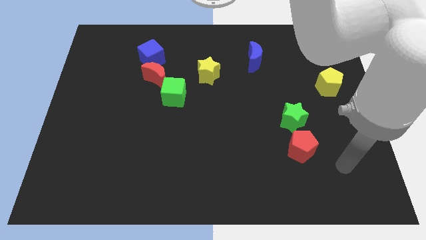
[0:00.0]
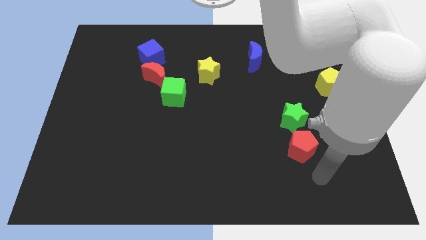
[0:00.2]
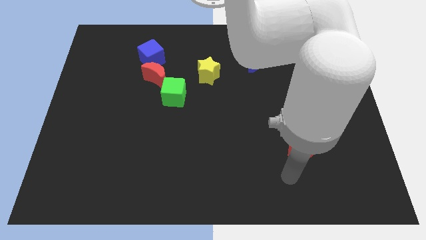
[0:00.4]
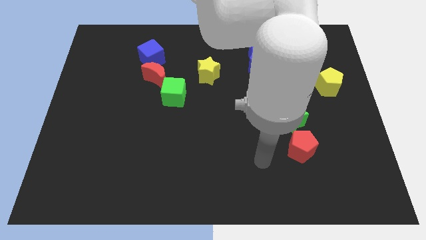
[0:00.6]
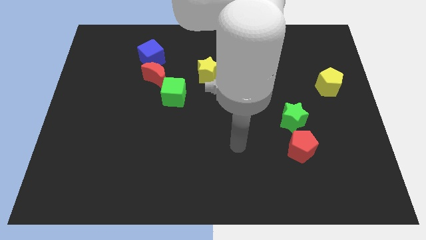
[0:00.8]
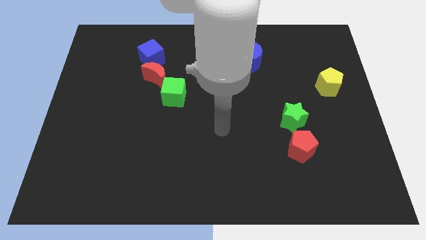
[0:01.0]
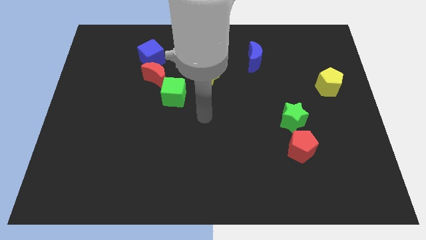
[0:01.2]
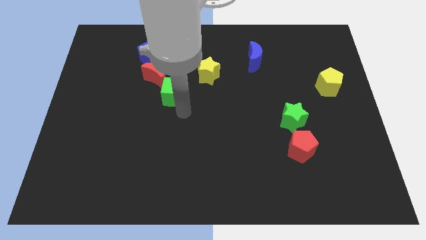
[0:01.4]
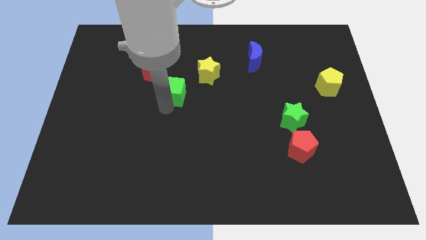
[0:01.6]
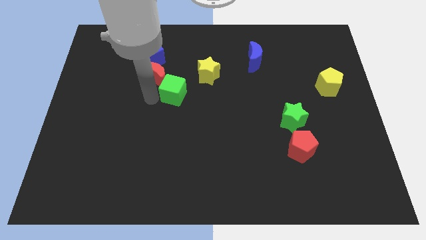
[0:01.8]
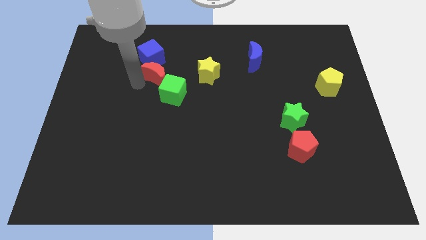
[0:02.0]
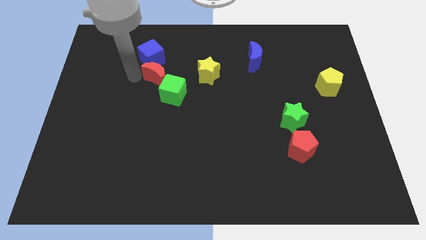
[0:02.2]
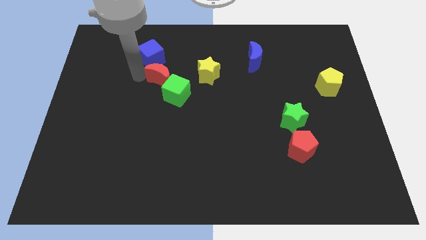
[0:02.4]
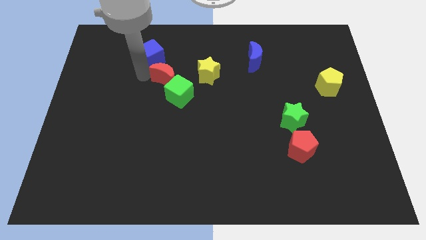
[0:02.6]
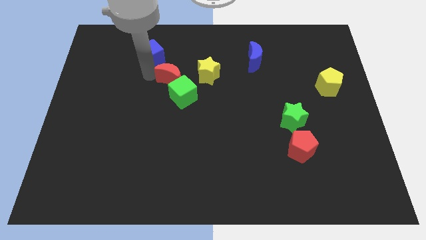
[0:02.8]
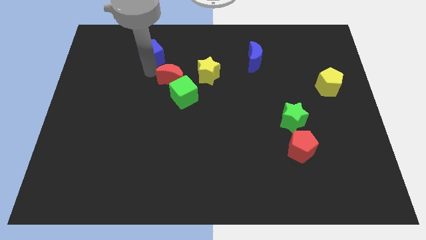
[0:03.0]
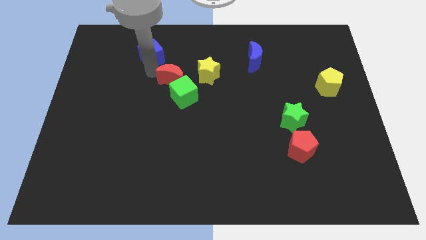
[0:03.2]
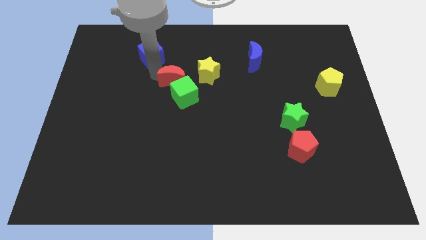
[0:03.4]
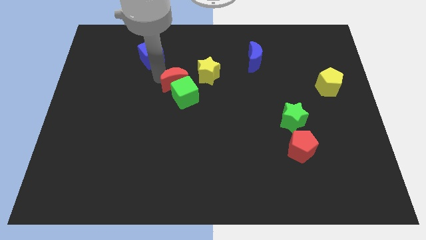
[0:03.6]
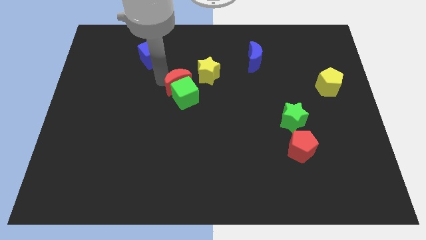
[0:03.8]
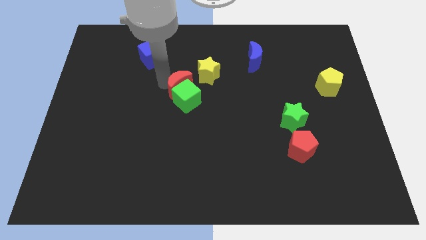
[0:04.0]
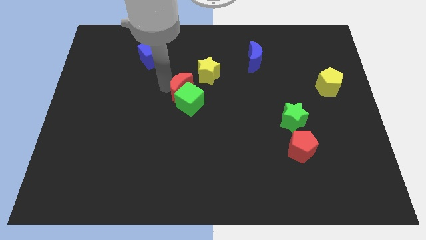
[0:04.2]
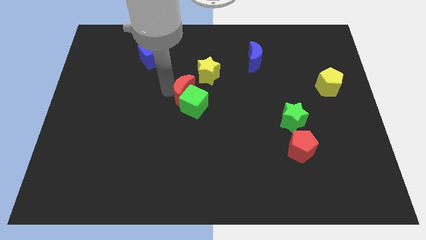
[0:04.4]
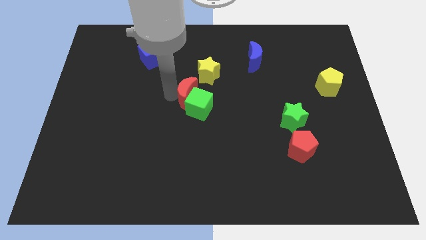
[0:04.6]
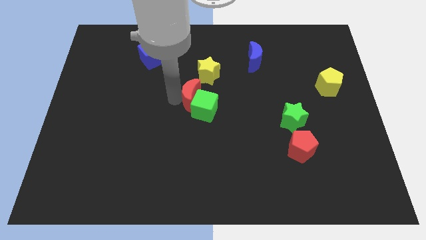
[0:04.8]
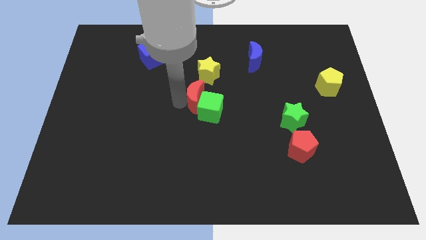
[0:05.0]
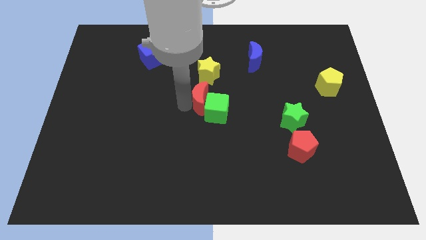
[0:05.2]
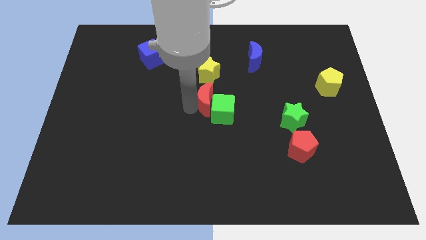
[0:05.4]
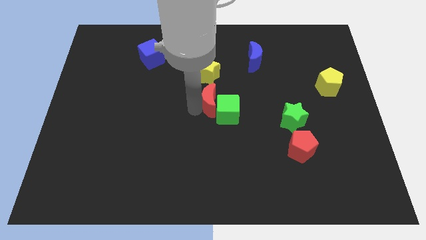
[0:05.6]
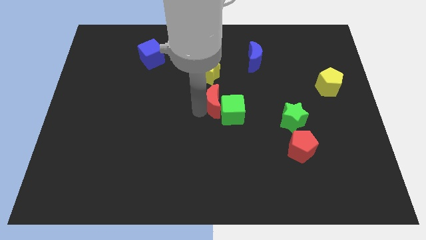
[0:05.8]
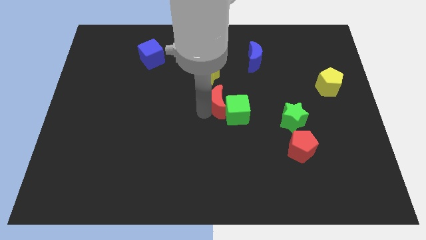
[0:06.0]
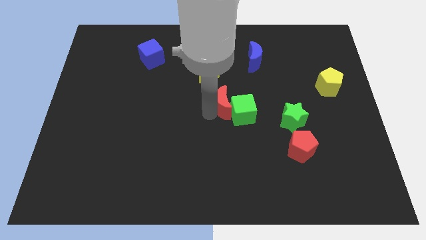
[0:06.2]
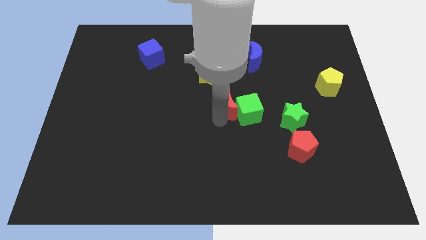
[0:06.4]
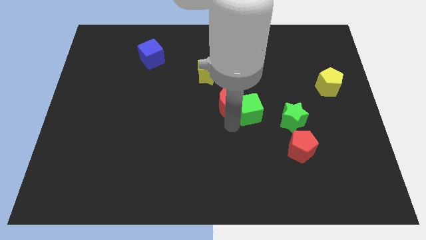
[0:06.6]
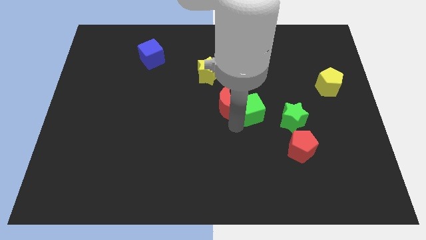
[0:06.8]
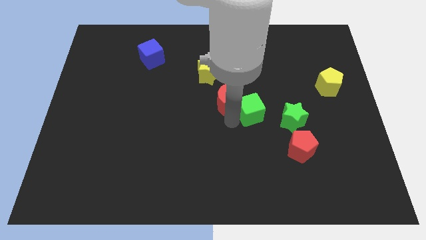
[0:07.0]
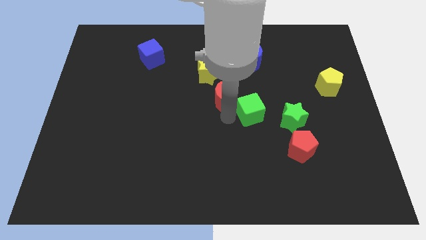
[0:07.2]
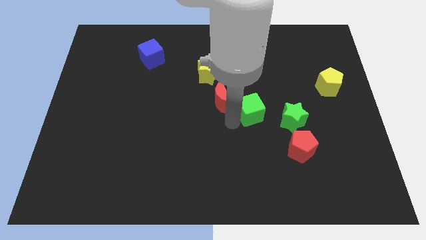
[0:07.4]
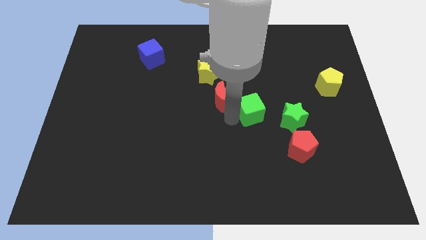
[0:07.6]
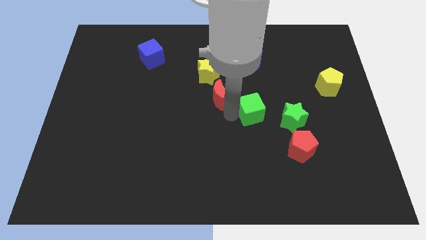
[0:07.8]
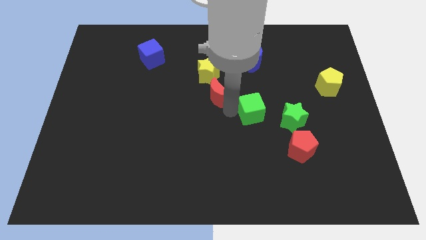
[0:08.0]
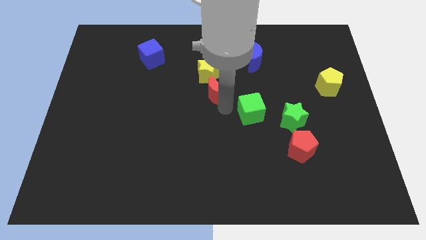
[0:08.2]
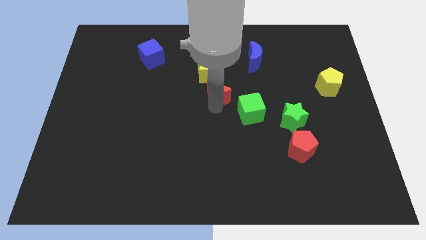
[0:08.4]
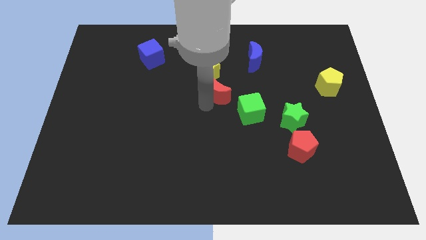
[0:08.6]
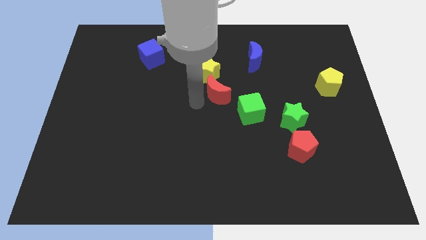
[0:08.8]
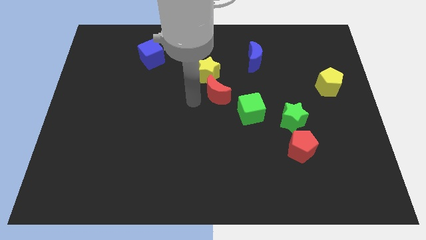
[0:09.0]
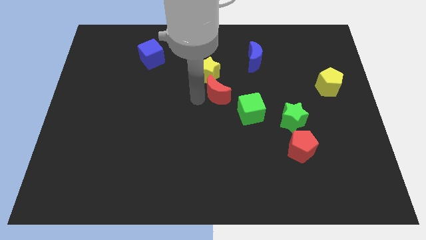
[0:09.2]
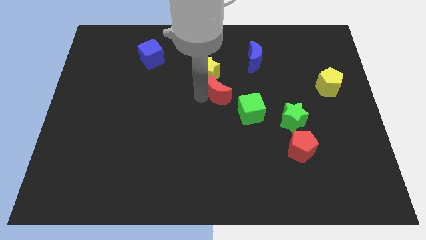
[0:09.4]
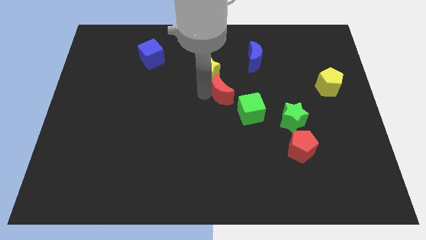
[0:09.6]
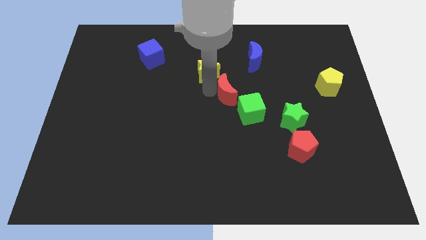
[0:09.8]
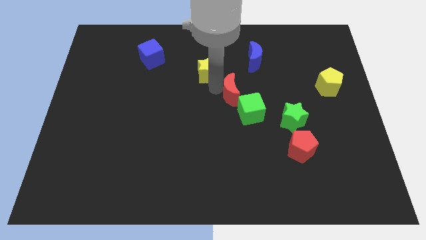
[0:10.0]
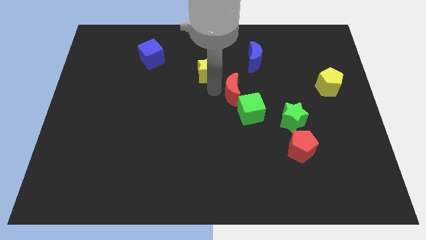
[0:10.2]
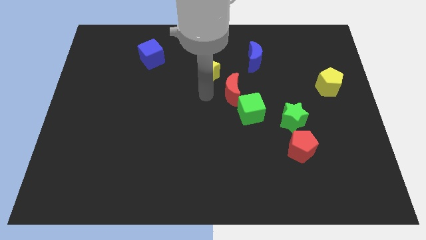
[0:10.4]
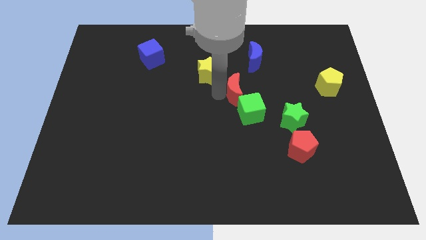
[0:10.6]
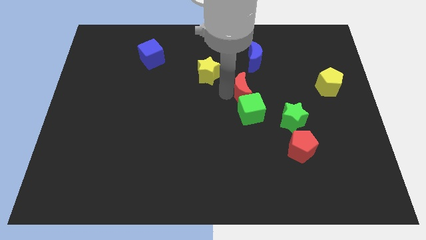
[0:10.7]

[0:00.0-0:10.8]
slide the red moon to the bottom side of the blue moon

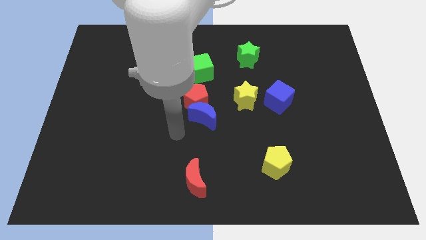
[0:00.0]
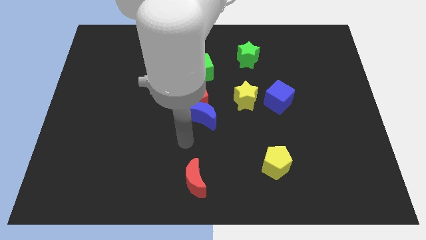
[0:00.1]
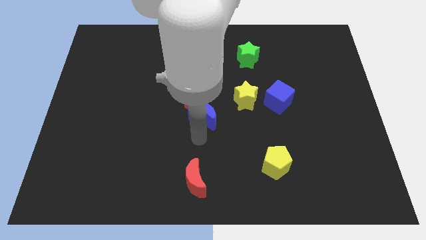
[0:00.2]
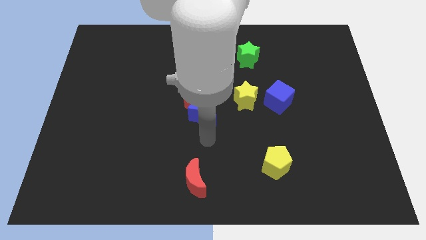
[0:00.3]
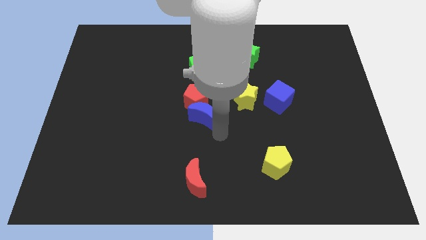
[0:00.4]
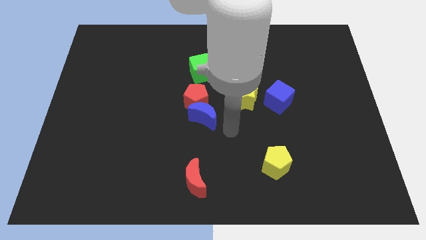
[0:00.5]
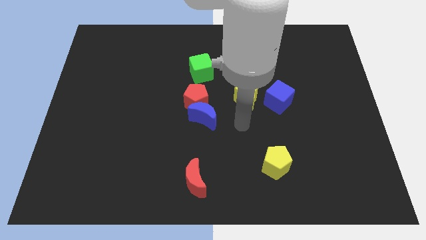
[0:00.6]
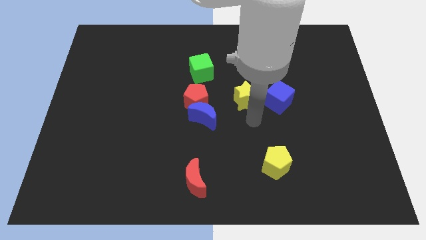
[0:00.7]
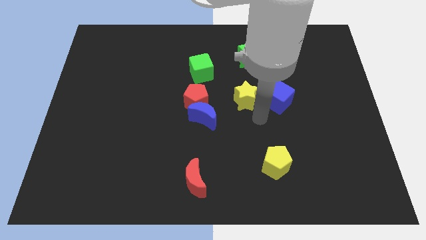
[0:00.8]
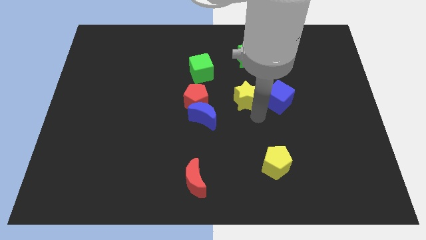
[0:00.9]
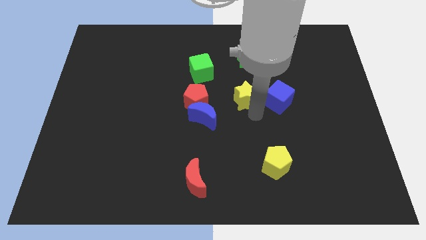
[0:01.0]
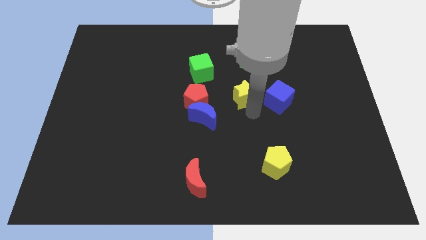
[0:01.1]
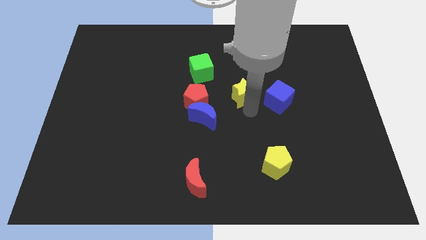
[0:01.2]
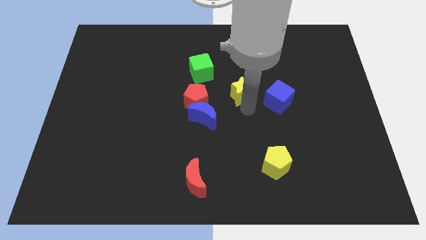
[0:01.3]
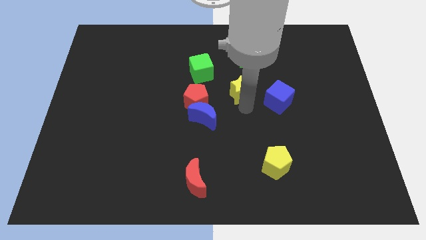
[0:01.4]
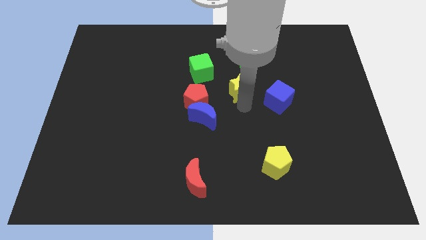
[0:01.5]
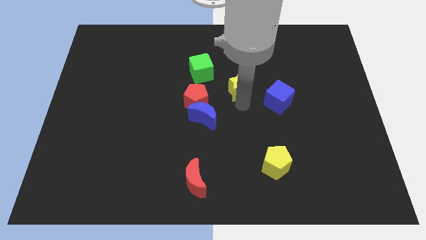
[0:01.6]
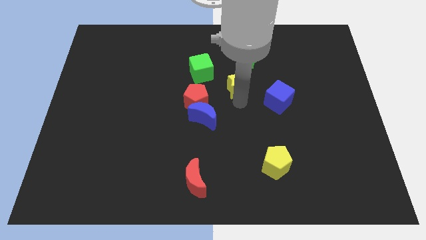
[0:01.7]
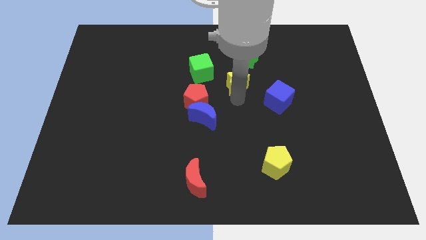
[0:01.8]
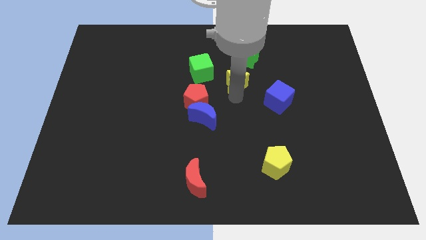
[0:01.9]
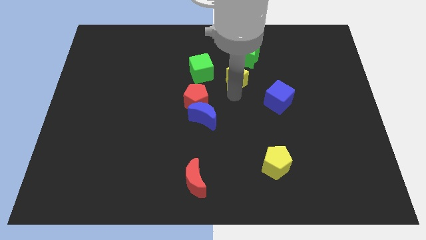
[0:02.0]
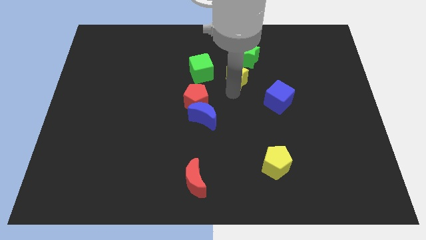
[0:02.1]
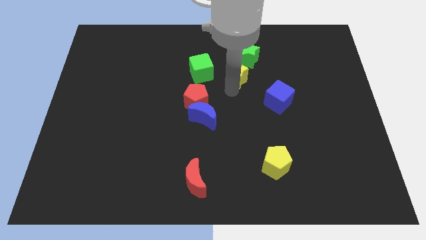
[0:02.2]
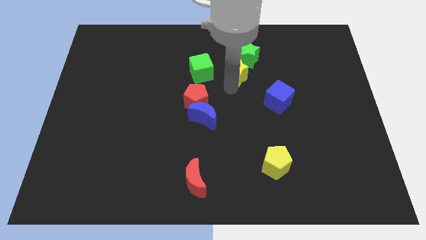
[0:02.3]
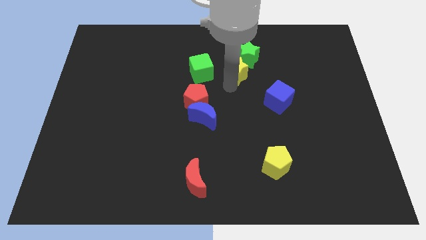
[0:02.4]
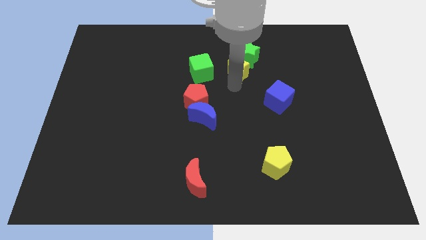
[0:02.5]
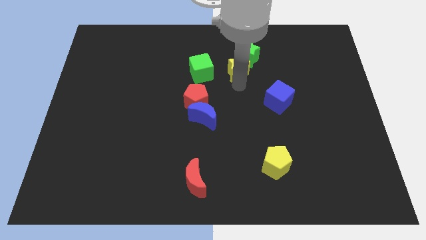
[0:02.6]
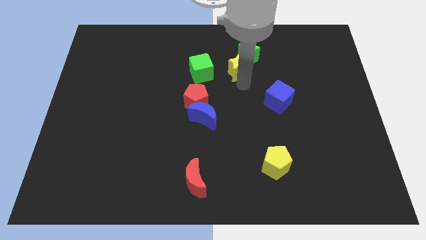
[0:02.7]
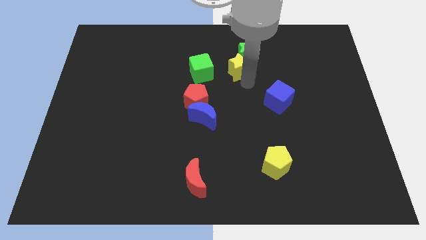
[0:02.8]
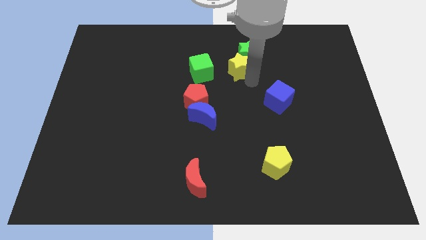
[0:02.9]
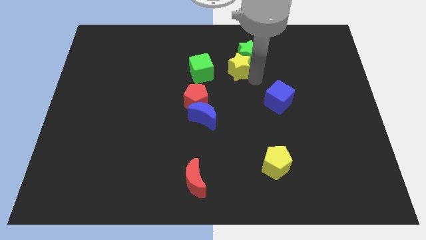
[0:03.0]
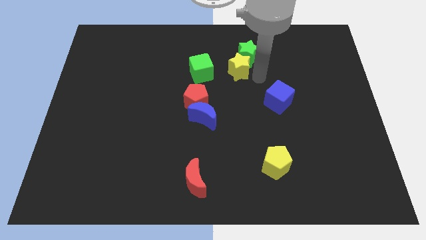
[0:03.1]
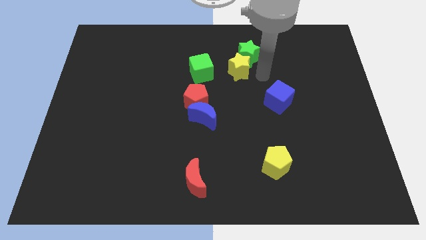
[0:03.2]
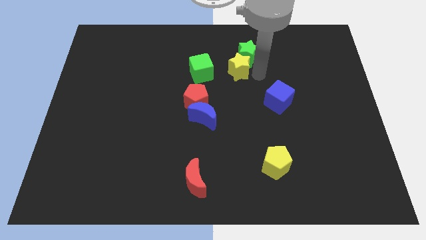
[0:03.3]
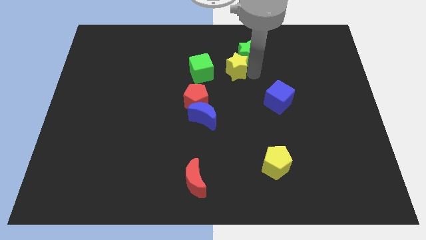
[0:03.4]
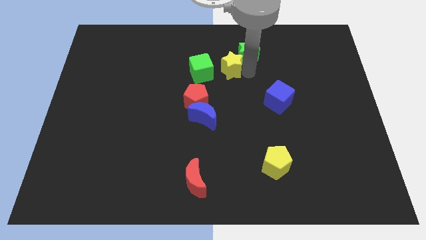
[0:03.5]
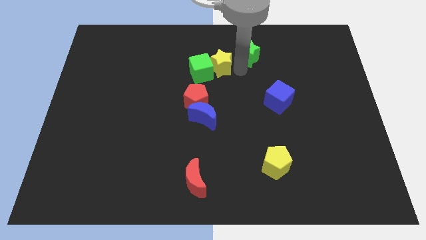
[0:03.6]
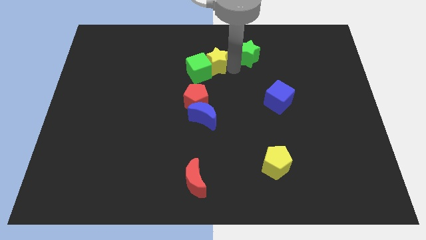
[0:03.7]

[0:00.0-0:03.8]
move the yellow star above the red pentagon
